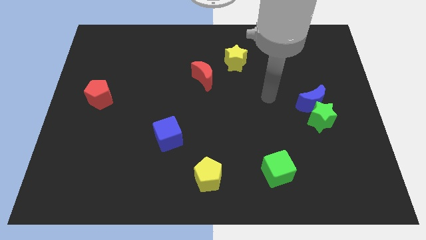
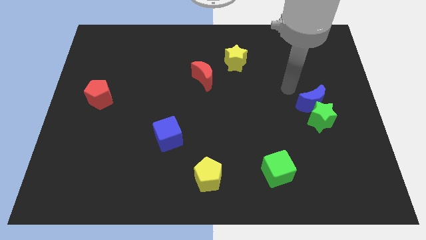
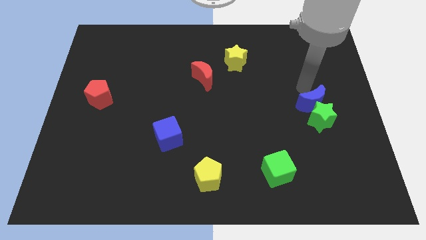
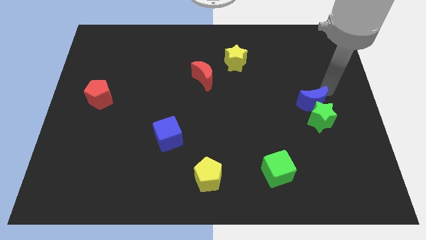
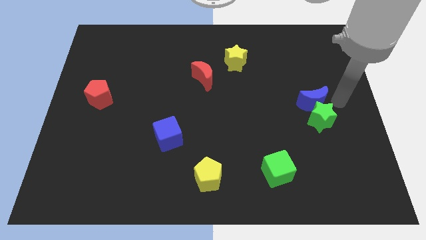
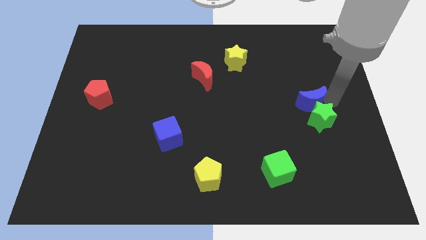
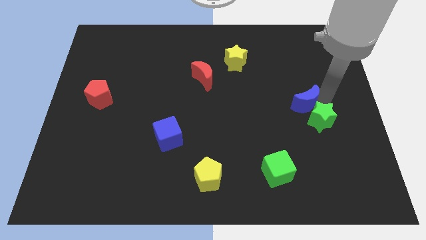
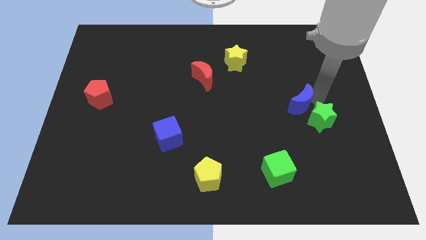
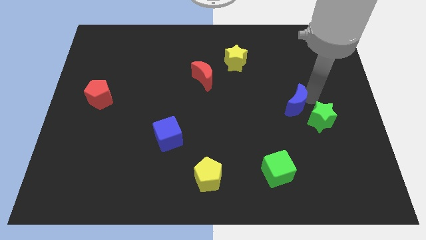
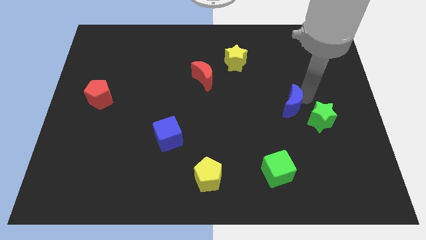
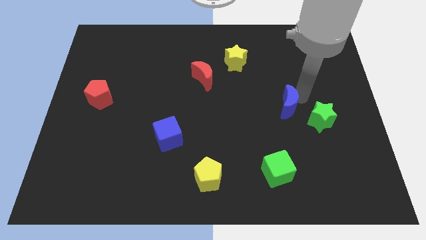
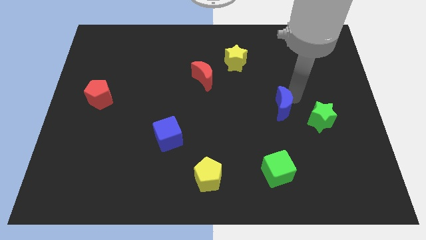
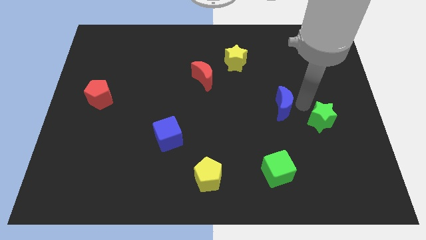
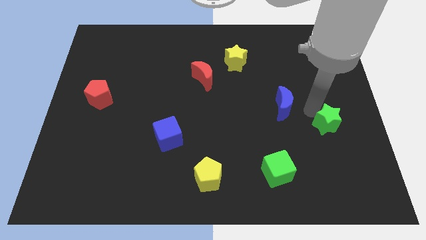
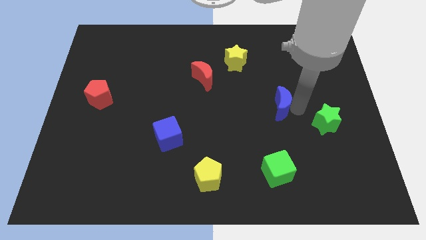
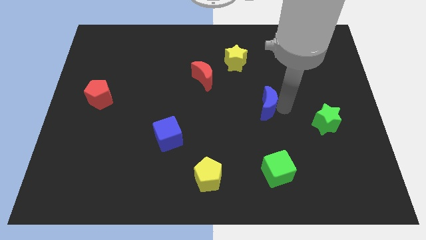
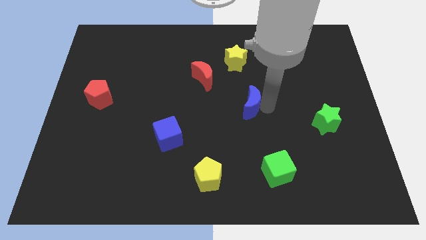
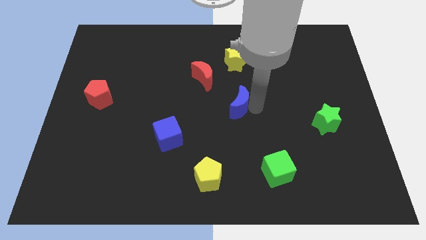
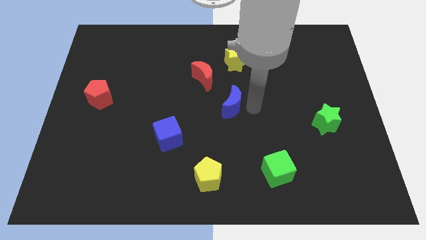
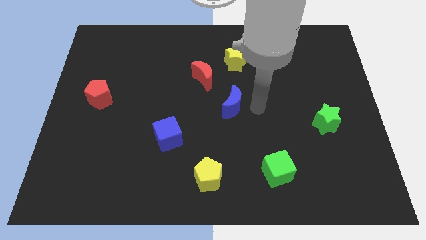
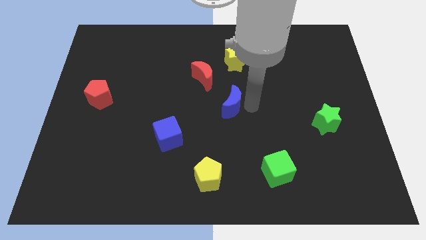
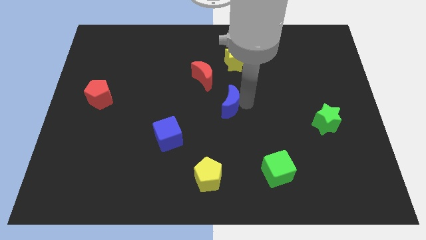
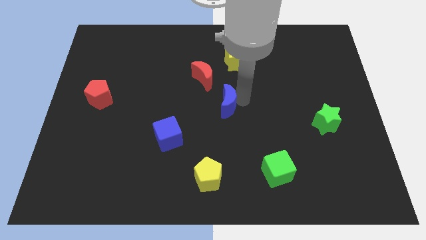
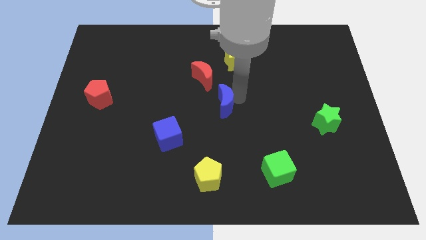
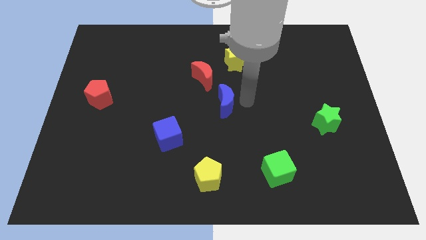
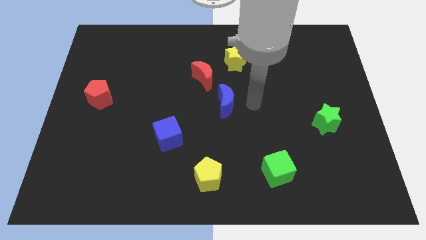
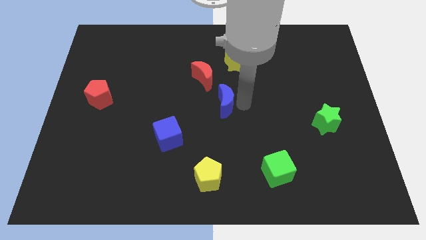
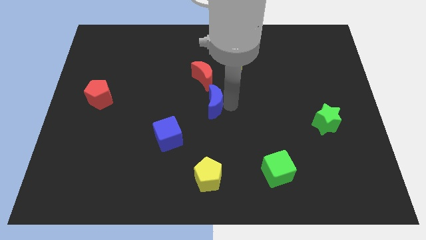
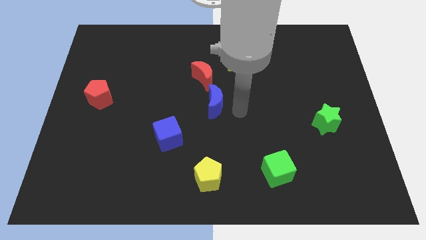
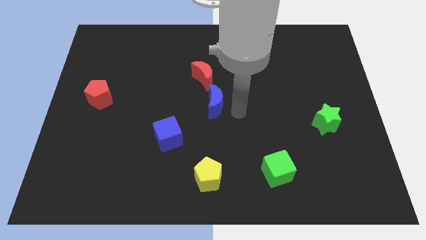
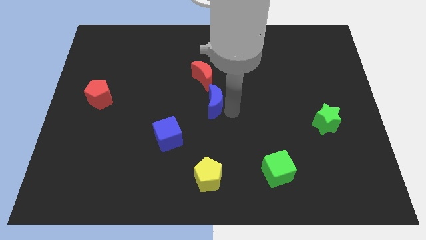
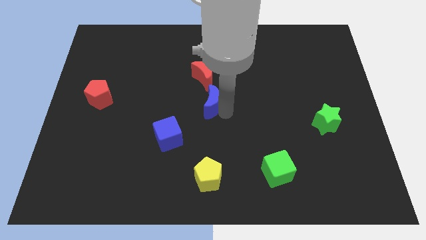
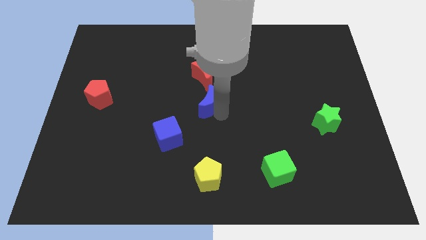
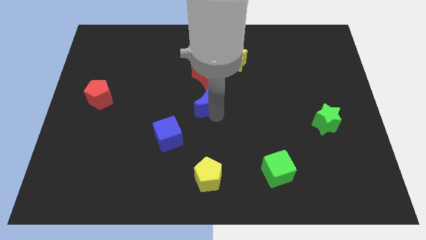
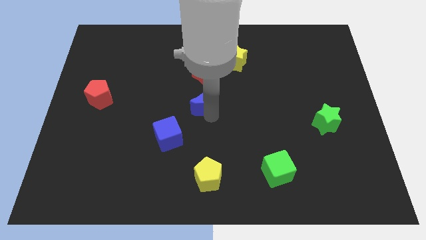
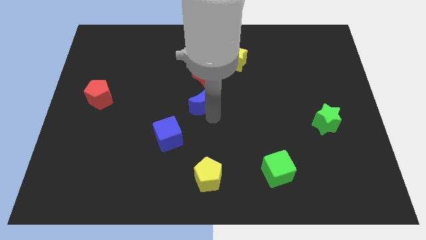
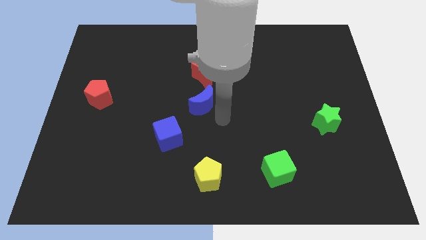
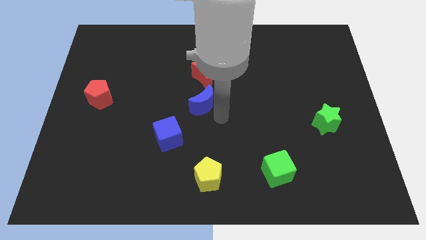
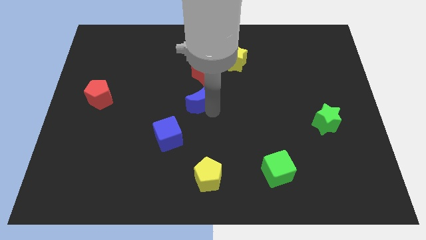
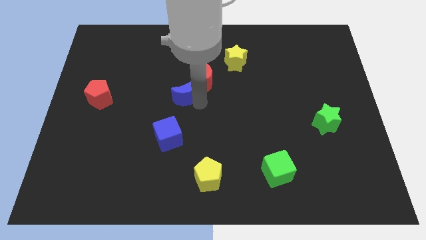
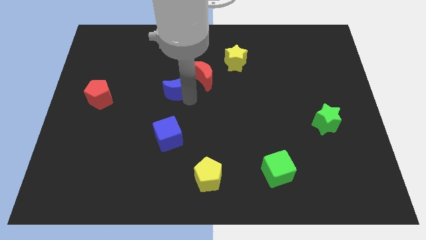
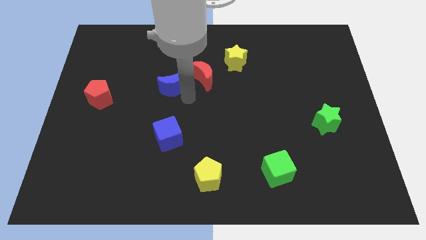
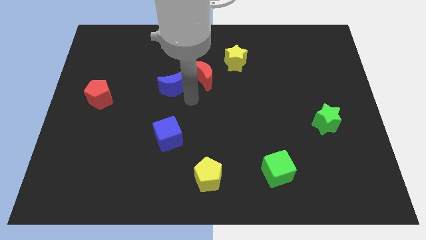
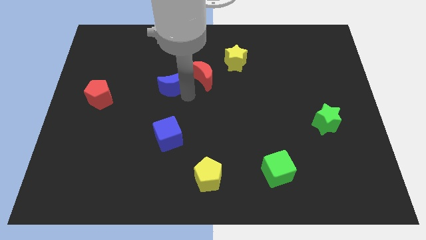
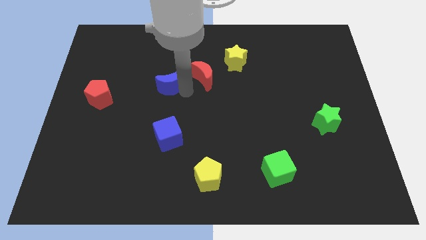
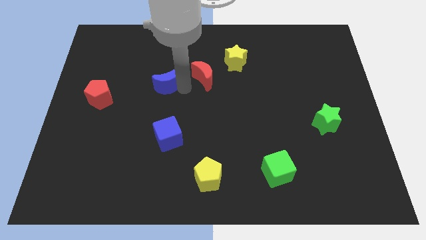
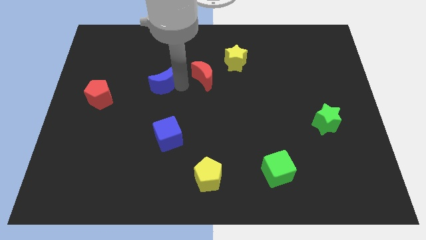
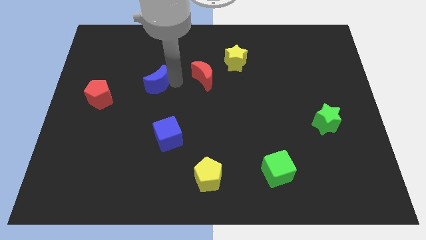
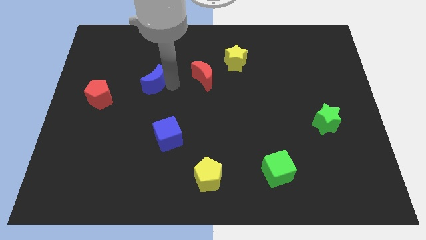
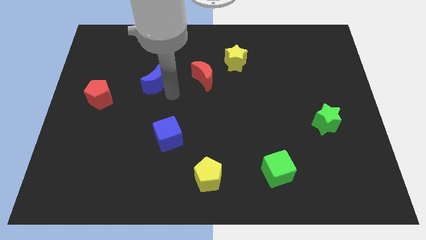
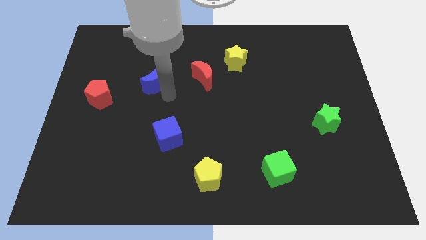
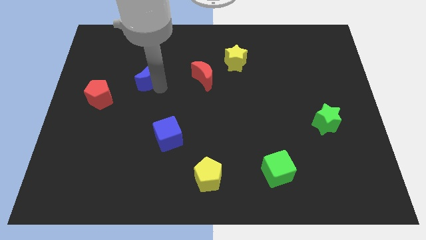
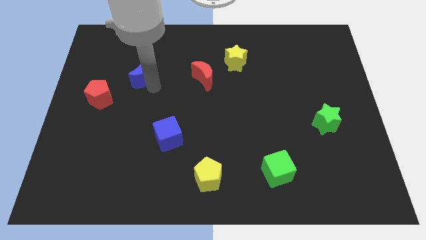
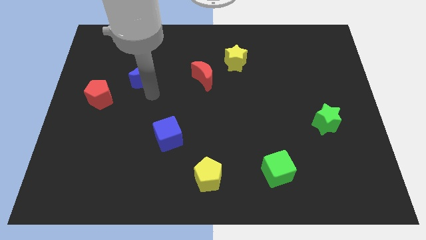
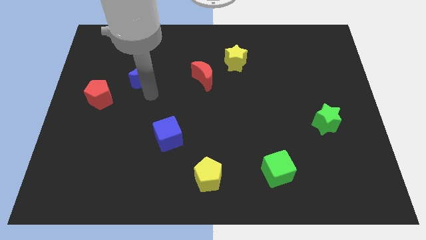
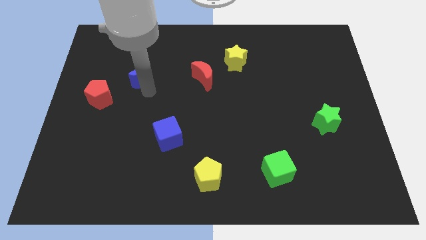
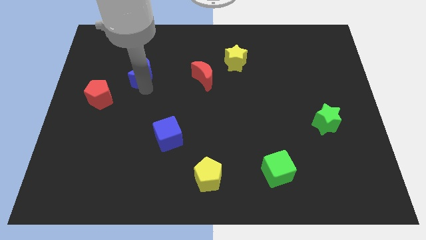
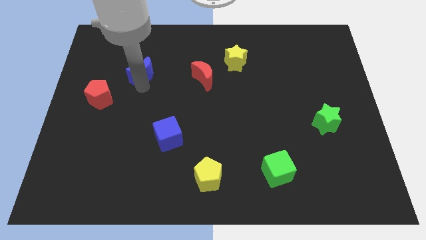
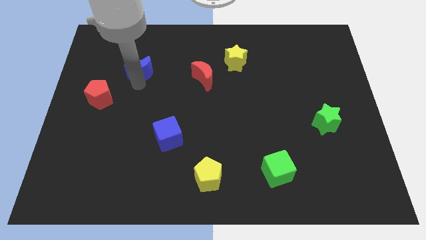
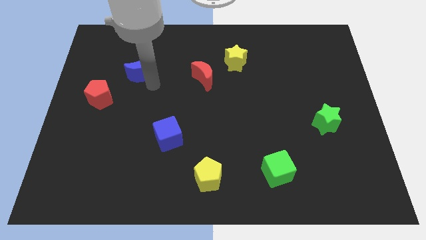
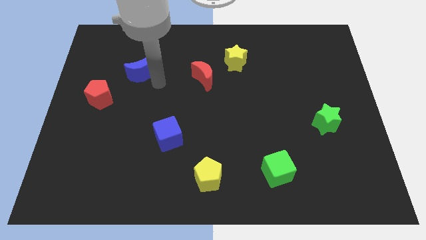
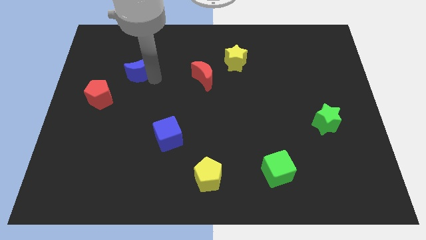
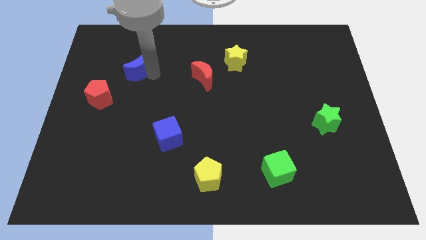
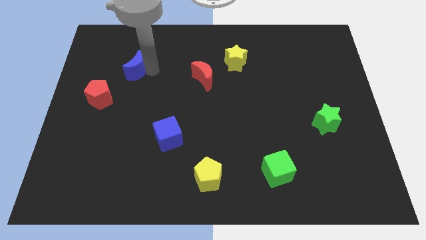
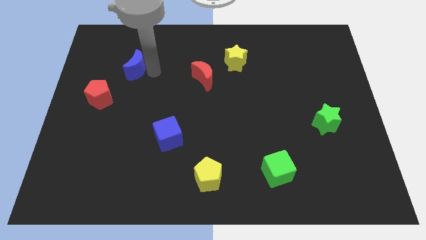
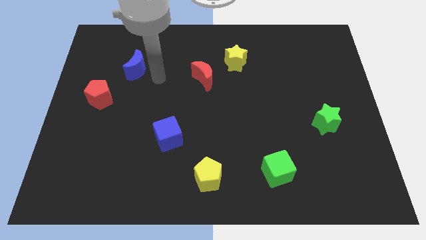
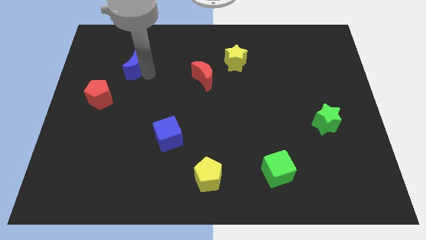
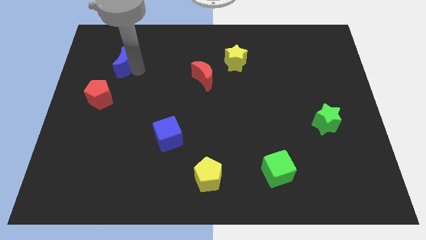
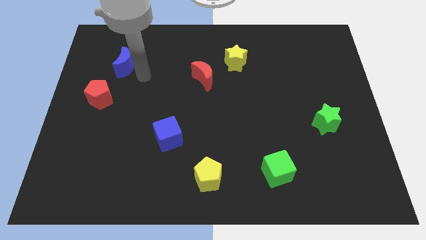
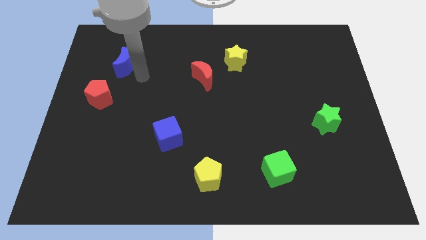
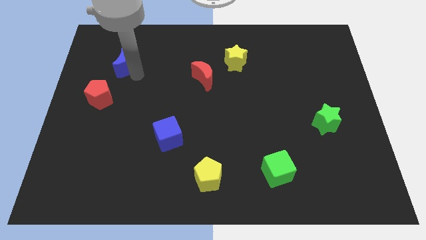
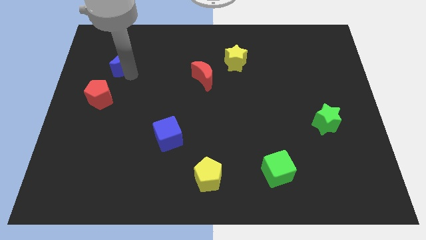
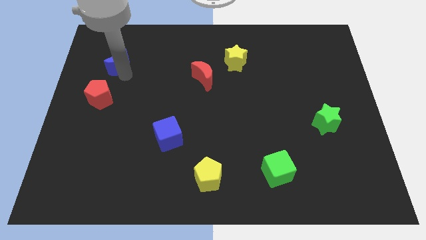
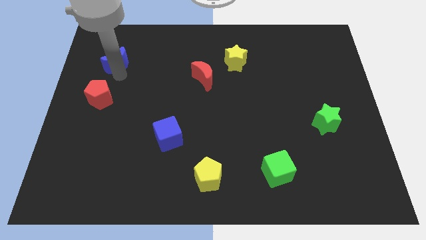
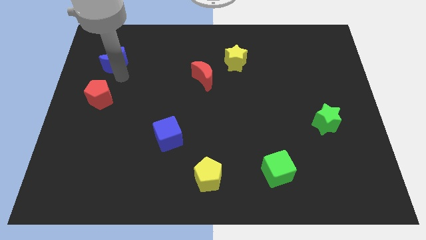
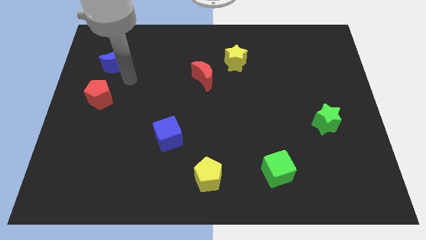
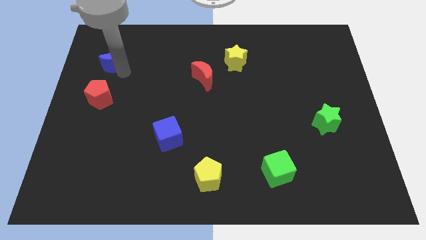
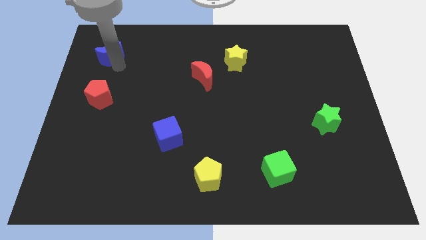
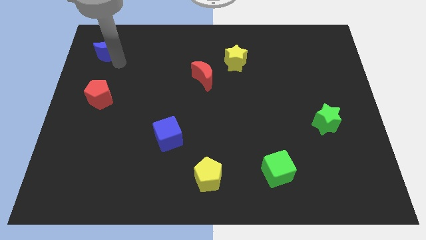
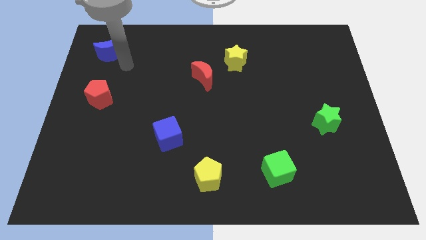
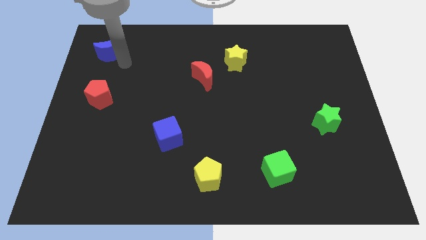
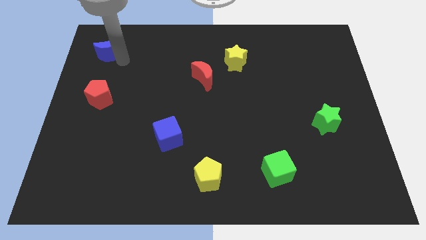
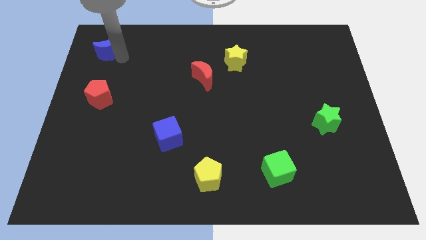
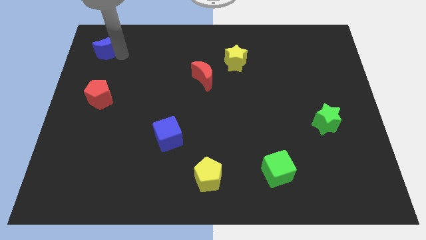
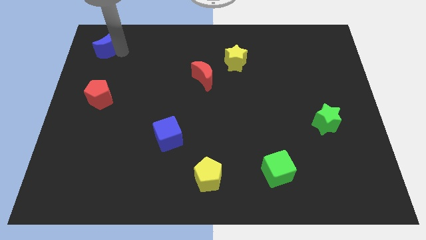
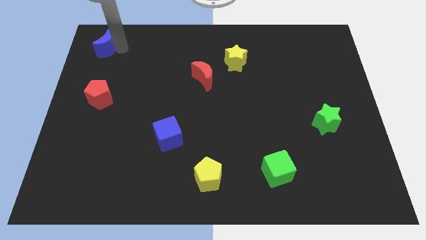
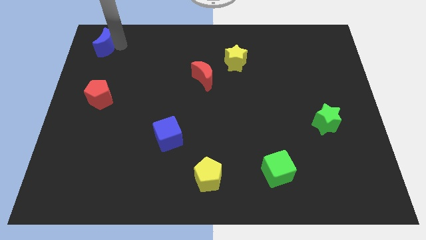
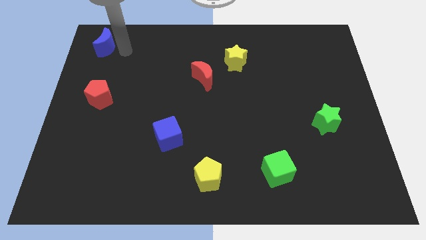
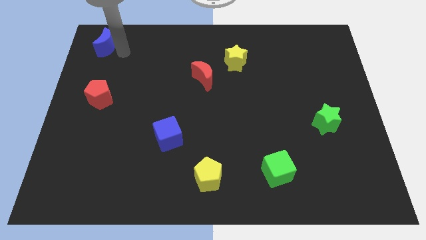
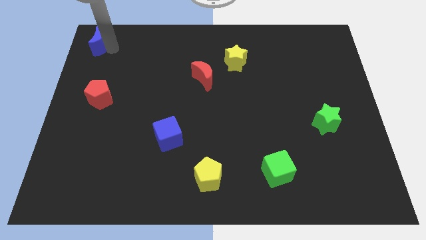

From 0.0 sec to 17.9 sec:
move the blue moon to the upper left corner
